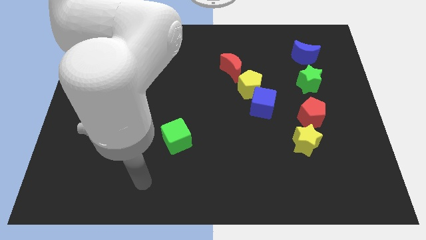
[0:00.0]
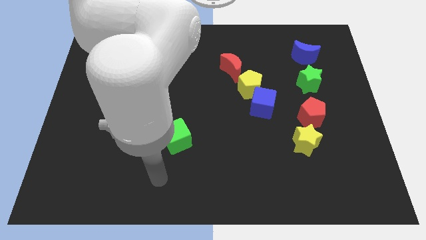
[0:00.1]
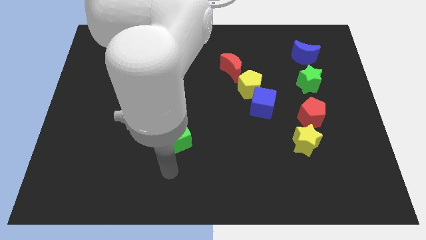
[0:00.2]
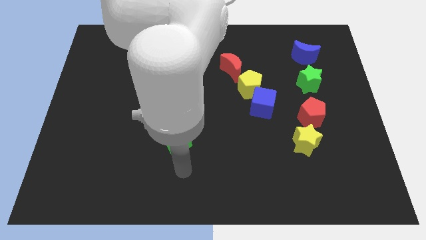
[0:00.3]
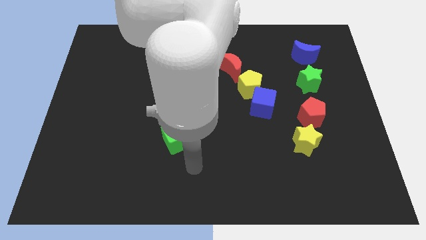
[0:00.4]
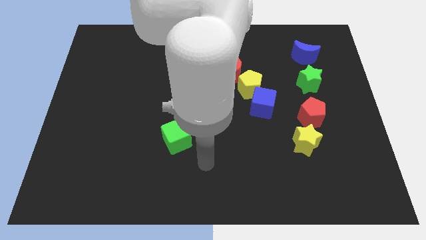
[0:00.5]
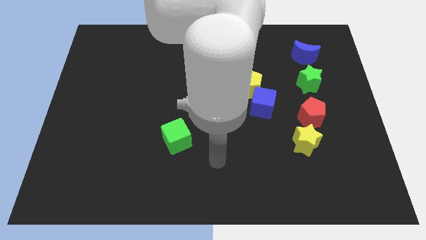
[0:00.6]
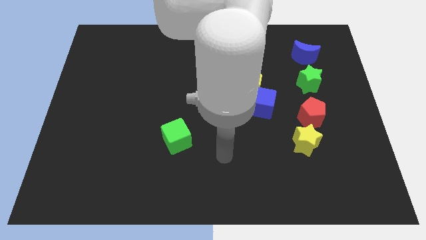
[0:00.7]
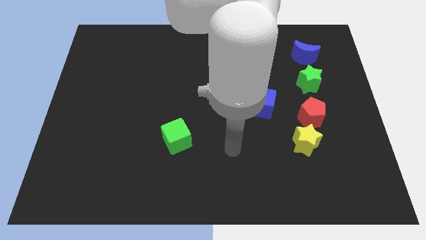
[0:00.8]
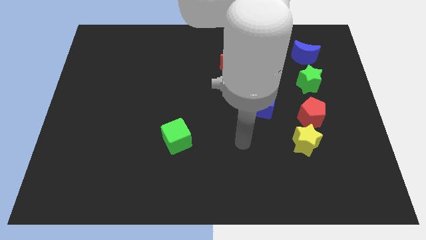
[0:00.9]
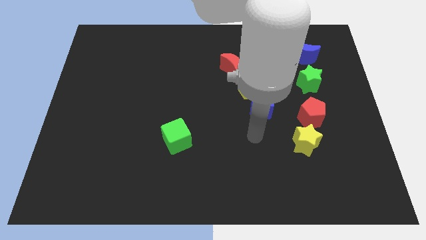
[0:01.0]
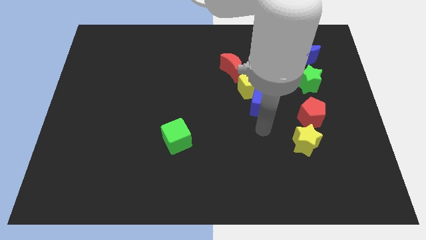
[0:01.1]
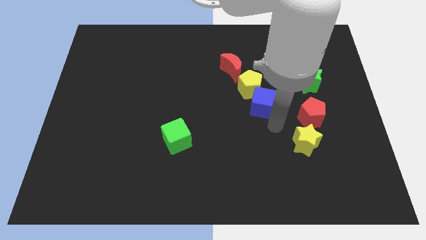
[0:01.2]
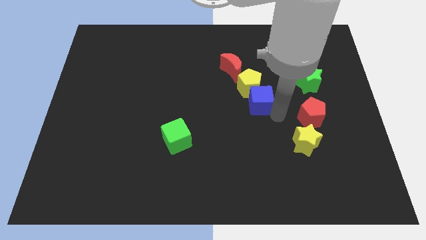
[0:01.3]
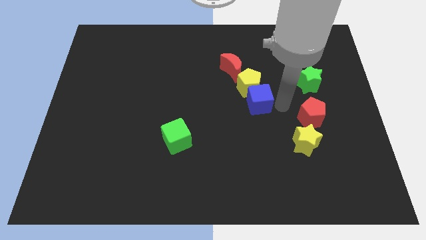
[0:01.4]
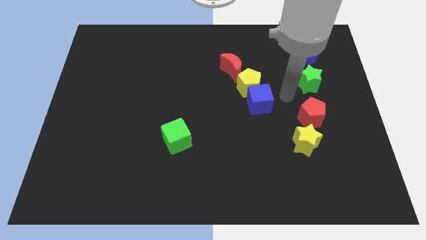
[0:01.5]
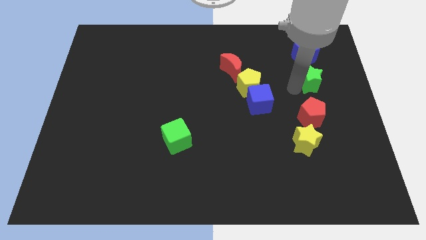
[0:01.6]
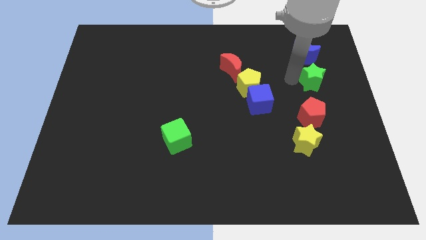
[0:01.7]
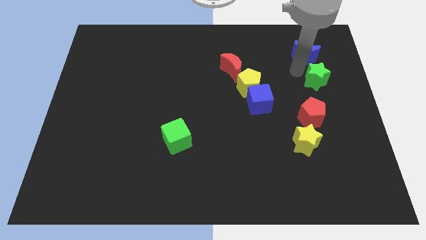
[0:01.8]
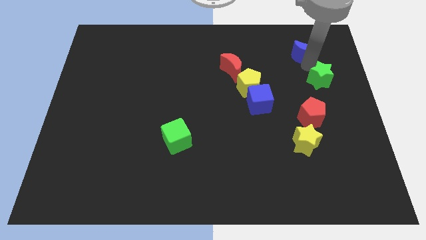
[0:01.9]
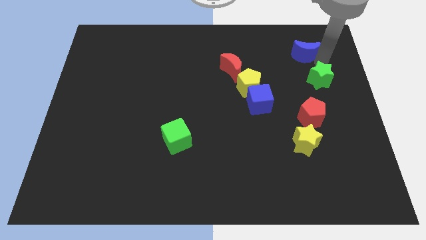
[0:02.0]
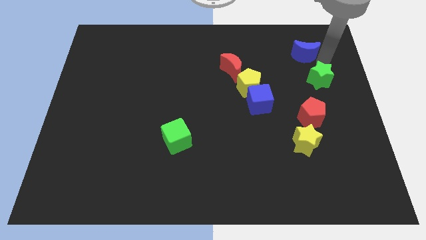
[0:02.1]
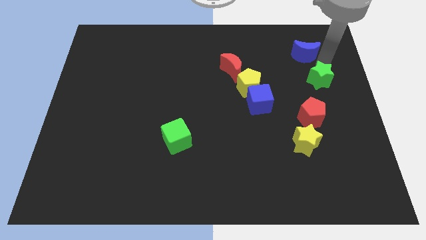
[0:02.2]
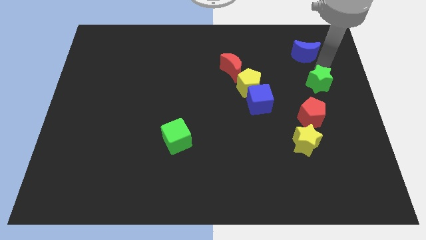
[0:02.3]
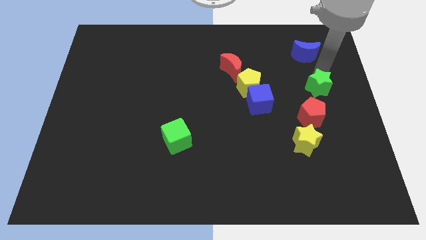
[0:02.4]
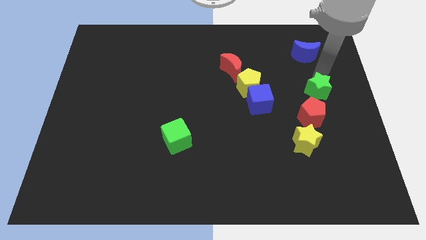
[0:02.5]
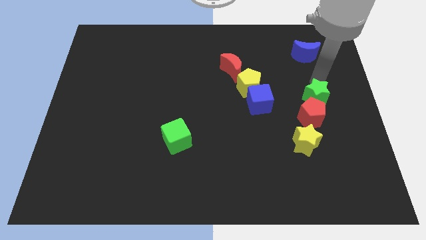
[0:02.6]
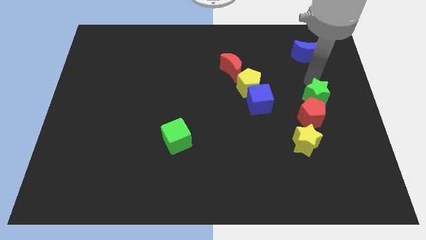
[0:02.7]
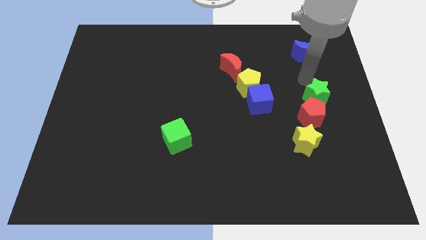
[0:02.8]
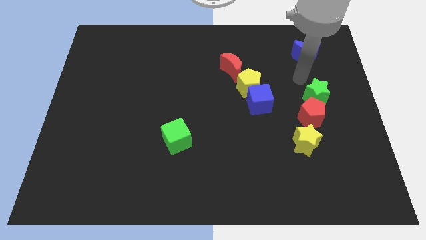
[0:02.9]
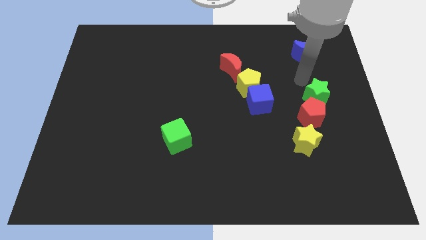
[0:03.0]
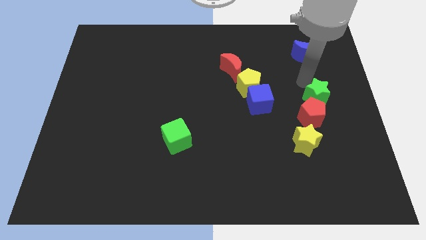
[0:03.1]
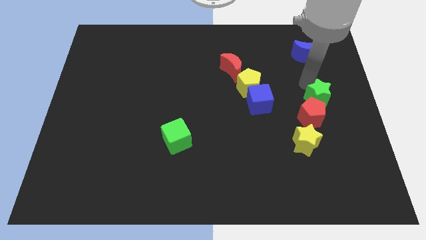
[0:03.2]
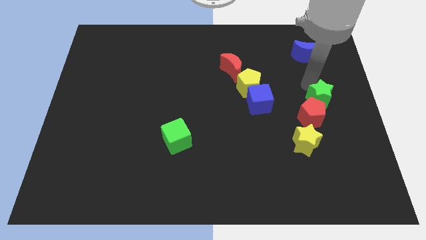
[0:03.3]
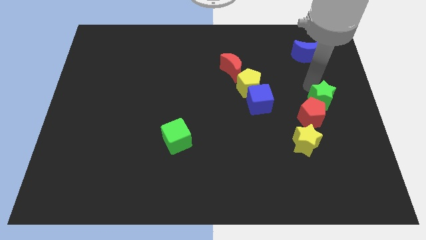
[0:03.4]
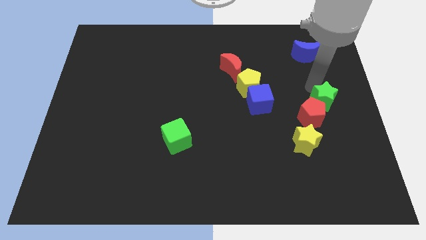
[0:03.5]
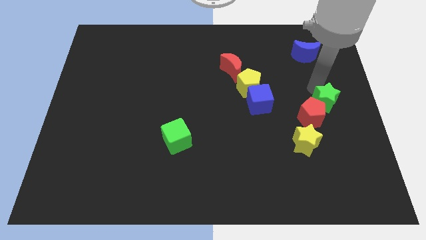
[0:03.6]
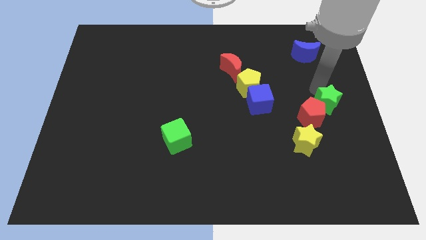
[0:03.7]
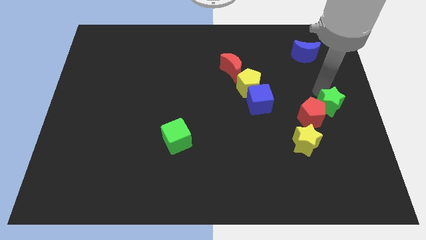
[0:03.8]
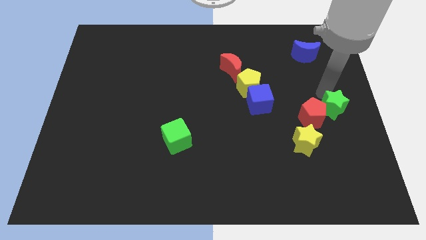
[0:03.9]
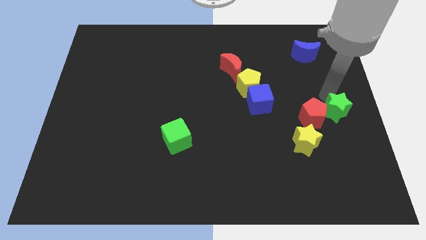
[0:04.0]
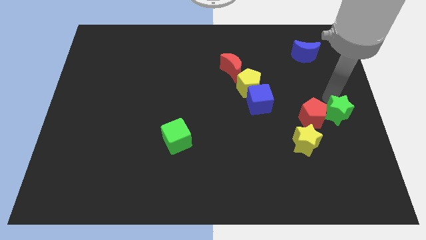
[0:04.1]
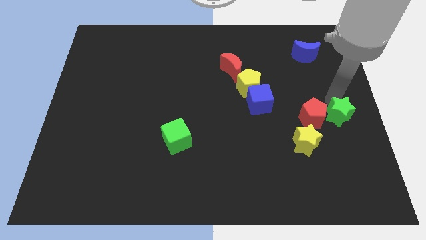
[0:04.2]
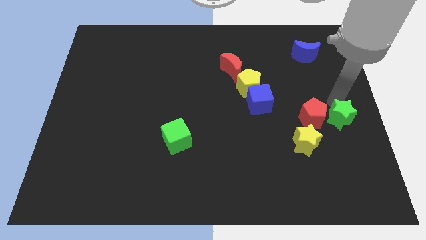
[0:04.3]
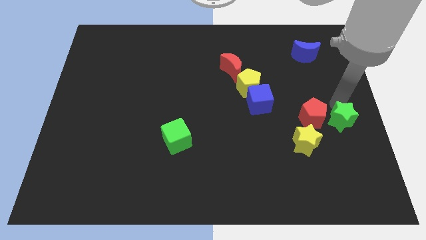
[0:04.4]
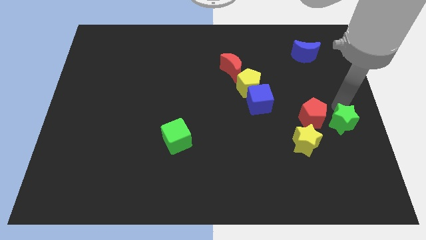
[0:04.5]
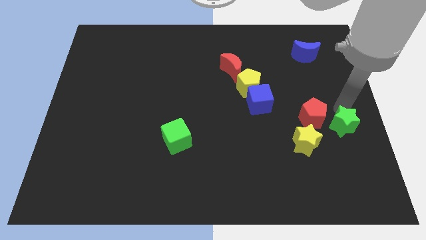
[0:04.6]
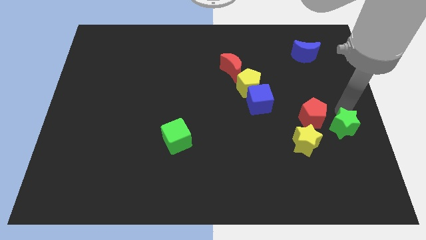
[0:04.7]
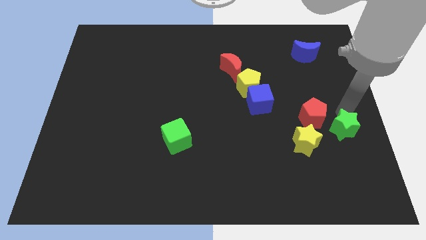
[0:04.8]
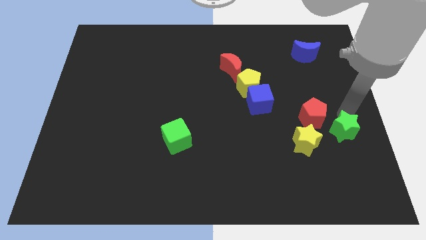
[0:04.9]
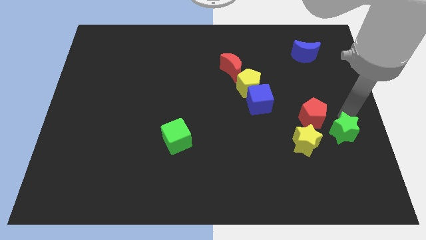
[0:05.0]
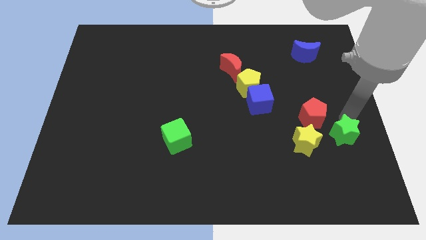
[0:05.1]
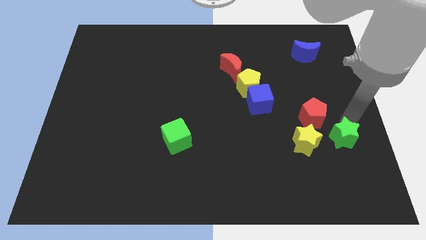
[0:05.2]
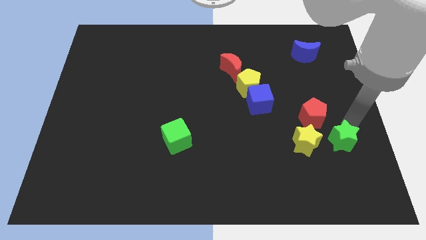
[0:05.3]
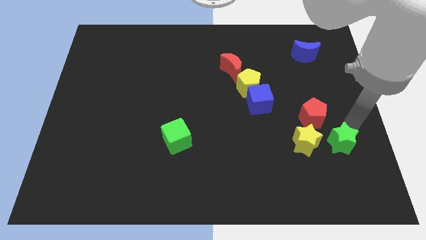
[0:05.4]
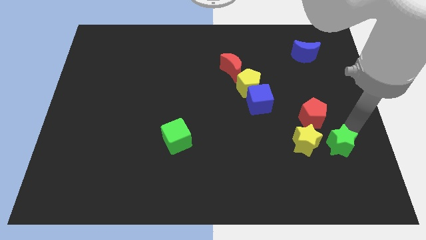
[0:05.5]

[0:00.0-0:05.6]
slide the green star to the bottom side of the red pentagon

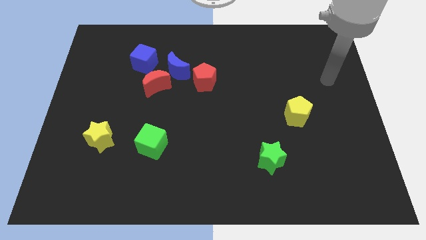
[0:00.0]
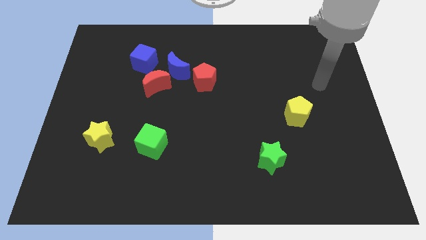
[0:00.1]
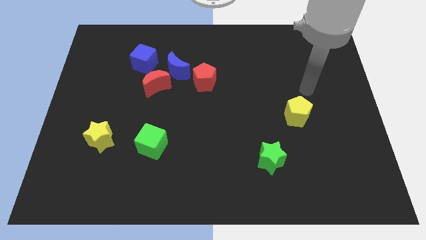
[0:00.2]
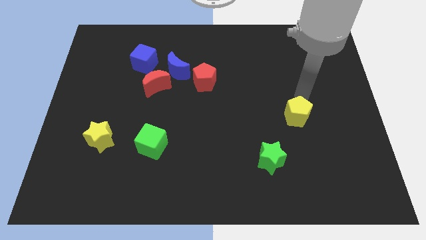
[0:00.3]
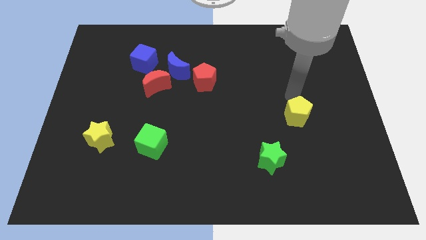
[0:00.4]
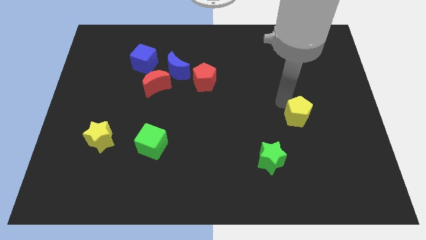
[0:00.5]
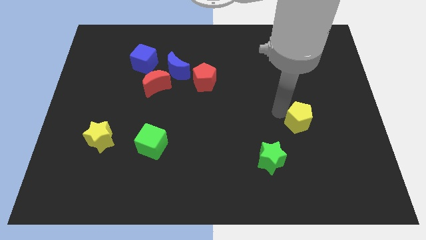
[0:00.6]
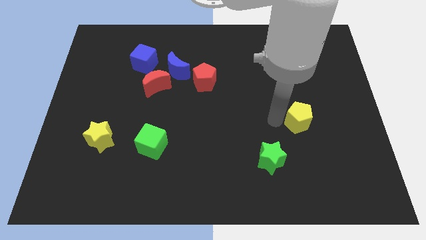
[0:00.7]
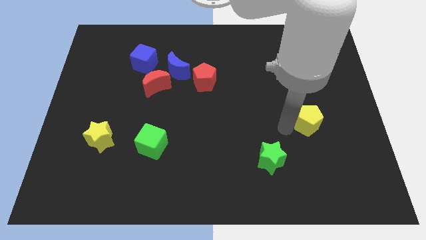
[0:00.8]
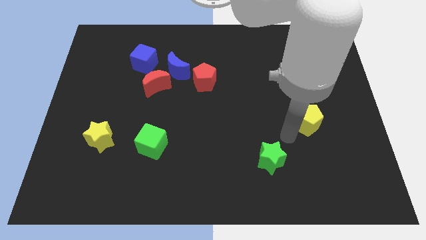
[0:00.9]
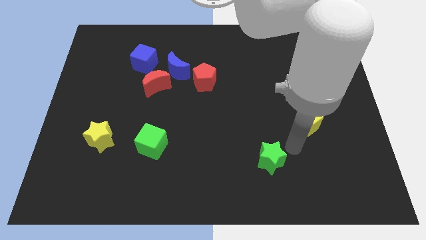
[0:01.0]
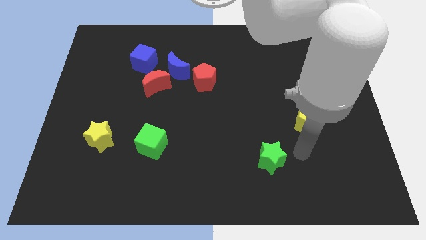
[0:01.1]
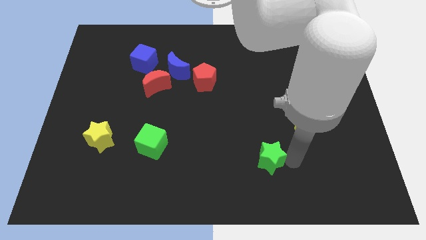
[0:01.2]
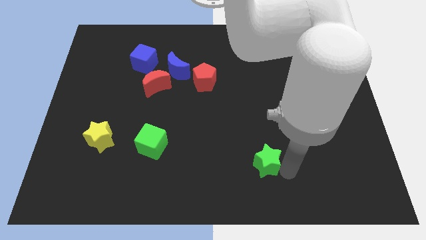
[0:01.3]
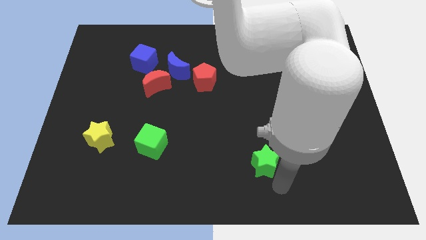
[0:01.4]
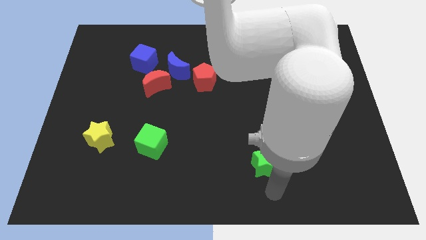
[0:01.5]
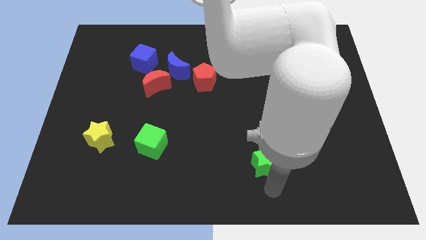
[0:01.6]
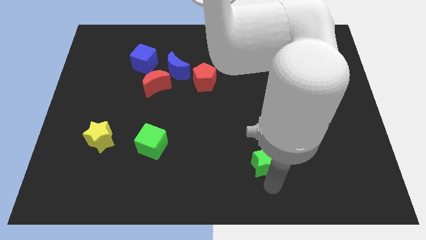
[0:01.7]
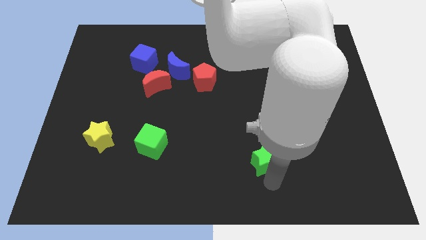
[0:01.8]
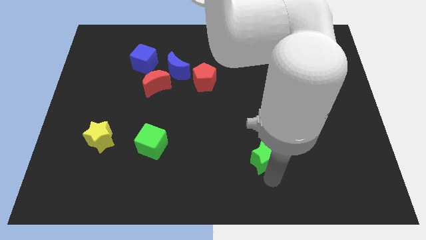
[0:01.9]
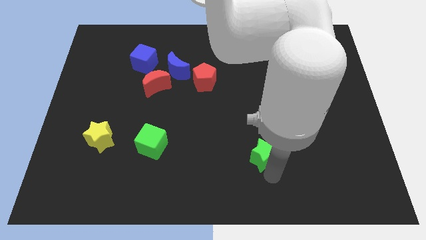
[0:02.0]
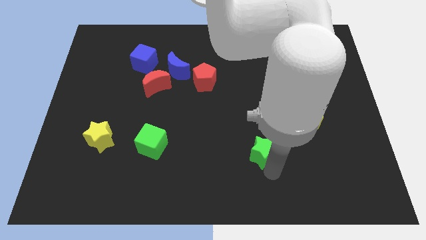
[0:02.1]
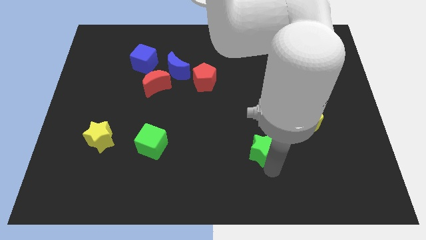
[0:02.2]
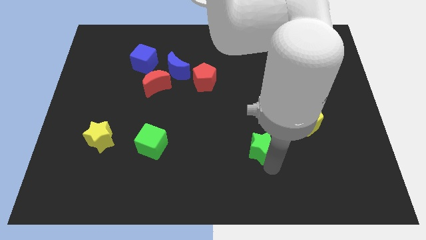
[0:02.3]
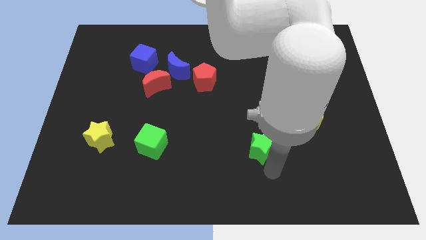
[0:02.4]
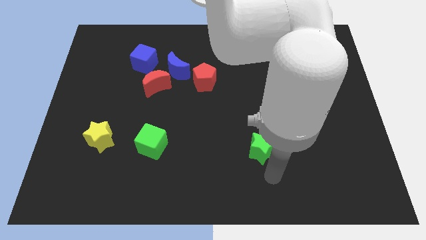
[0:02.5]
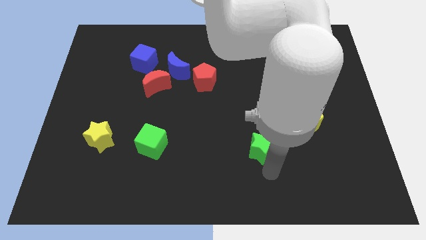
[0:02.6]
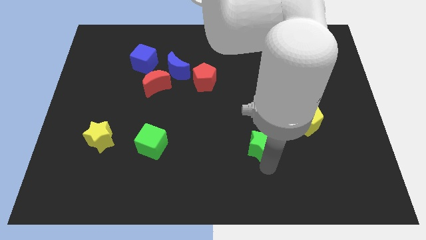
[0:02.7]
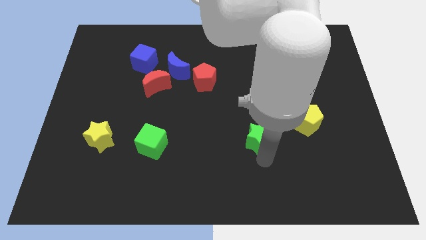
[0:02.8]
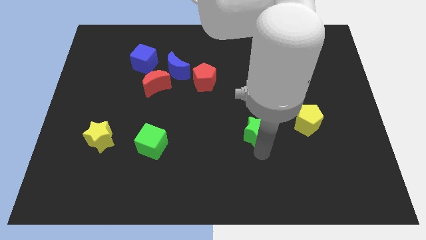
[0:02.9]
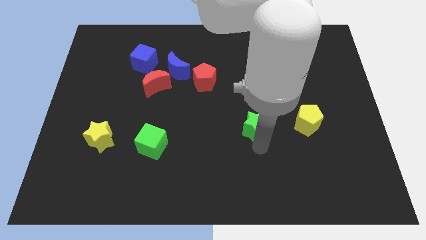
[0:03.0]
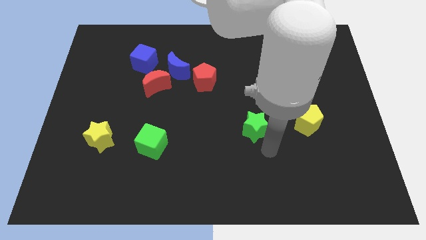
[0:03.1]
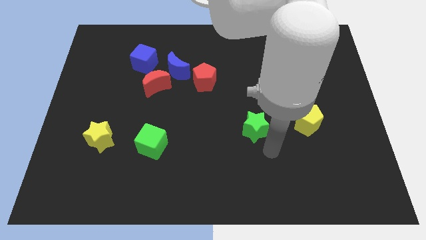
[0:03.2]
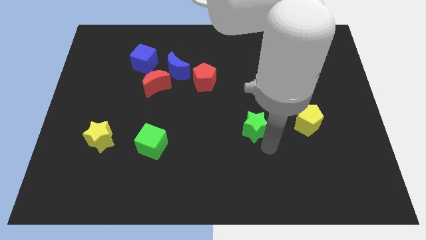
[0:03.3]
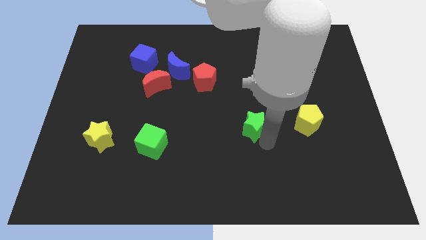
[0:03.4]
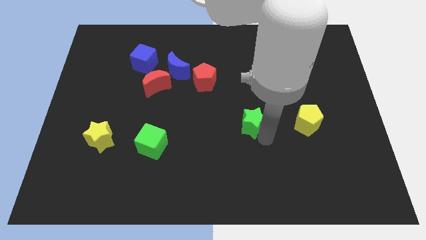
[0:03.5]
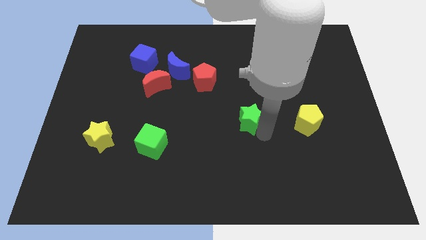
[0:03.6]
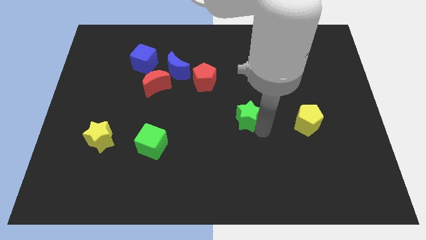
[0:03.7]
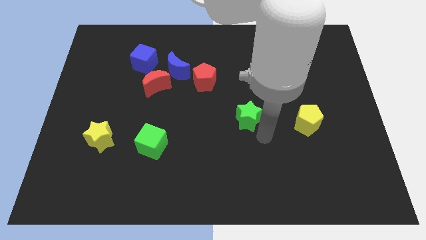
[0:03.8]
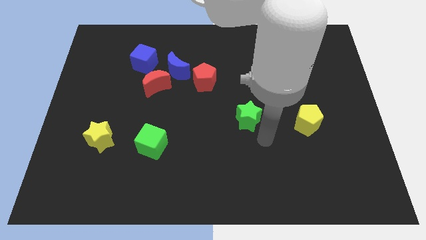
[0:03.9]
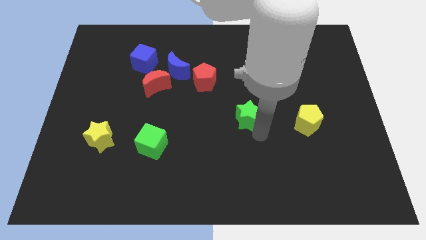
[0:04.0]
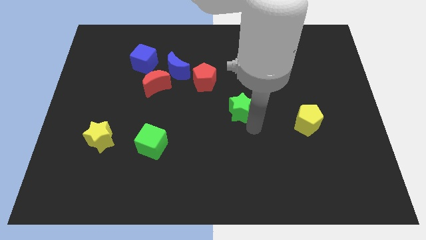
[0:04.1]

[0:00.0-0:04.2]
move the green star diagonally down and to the right of the red pentagon
